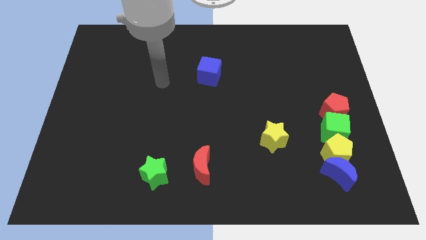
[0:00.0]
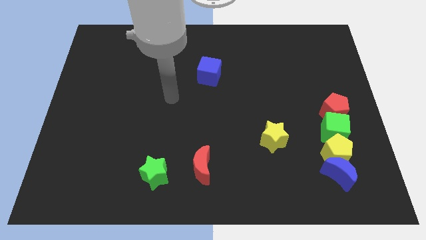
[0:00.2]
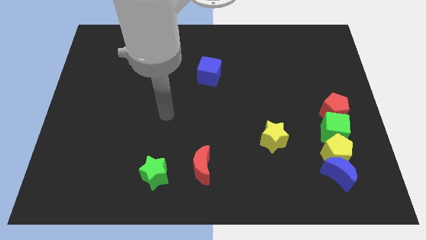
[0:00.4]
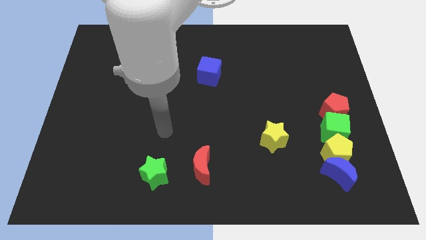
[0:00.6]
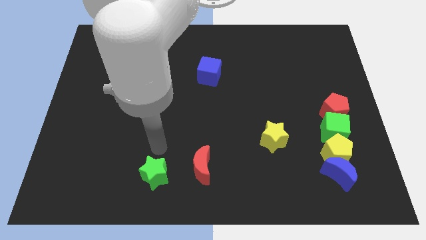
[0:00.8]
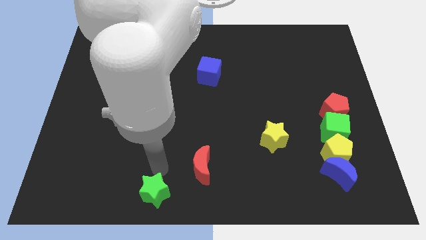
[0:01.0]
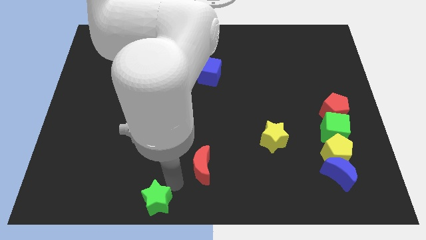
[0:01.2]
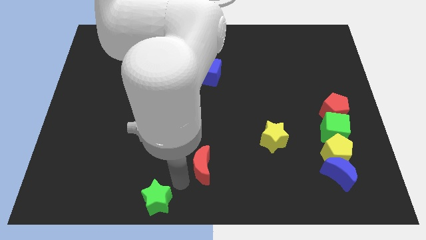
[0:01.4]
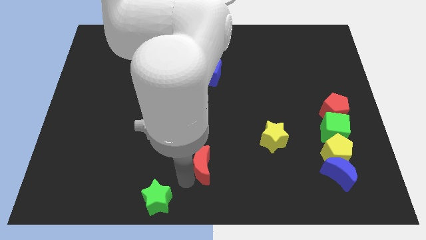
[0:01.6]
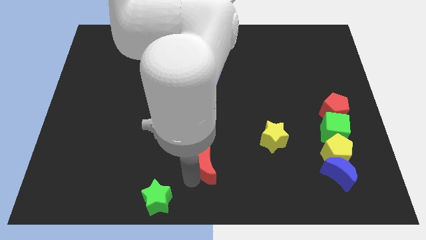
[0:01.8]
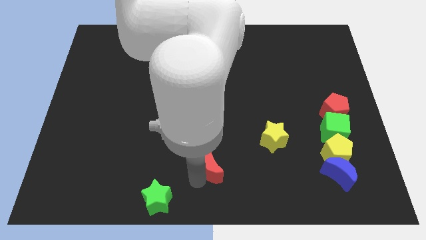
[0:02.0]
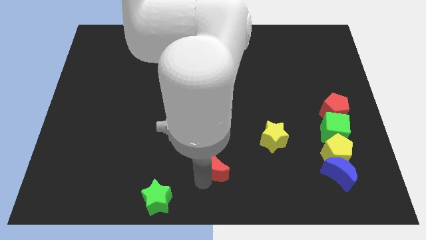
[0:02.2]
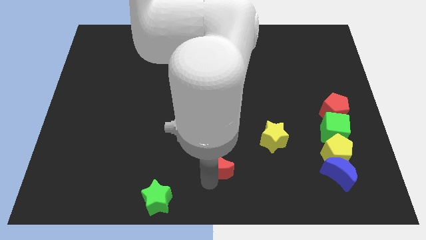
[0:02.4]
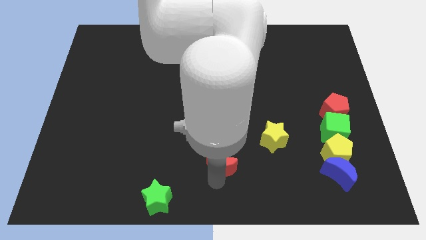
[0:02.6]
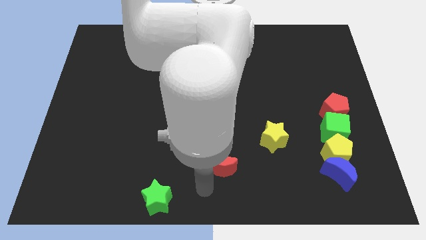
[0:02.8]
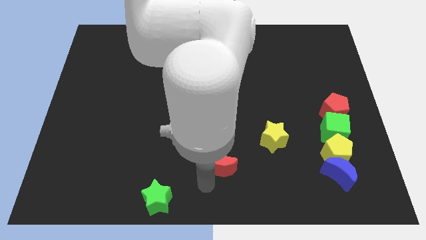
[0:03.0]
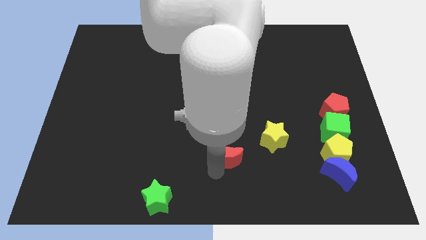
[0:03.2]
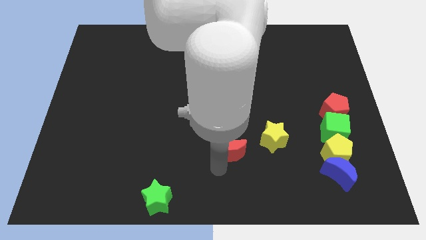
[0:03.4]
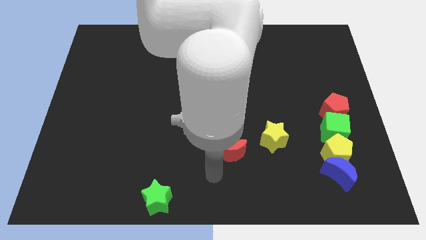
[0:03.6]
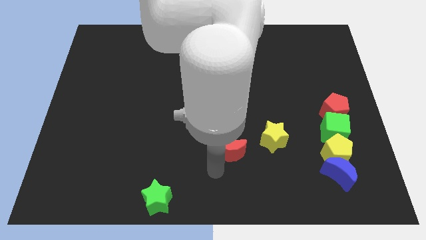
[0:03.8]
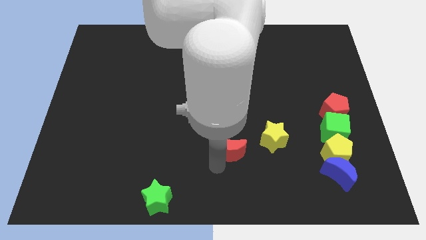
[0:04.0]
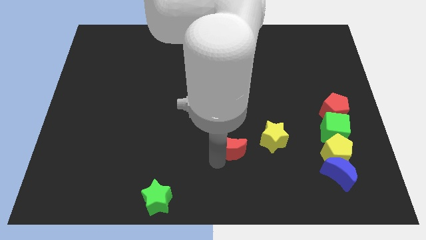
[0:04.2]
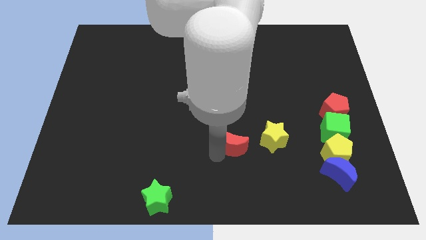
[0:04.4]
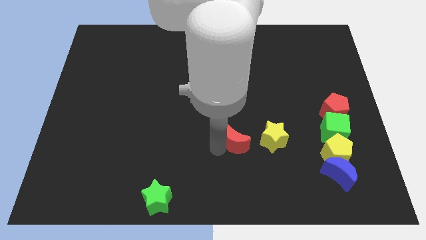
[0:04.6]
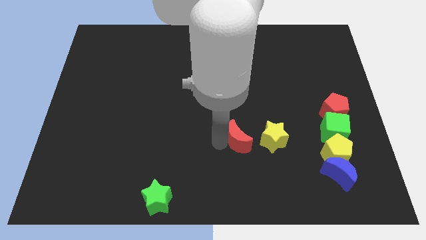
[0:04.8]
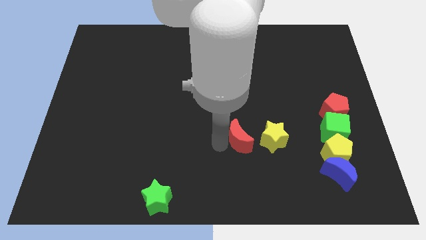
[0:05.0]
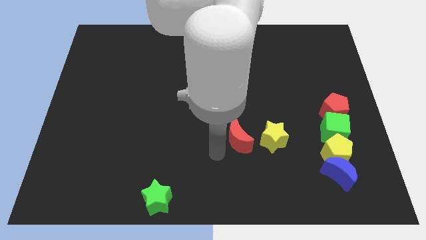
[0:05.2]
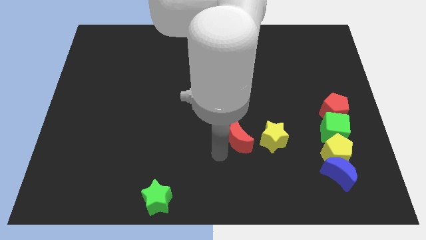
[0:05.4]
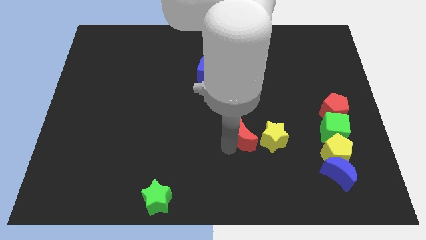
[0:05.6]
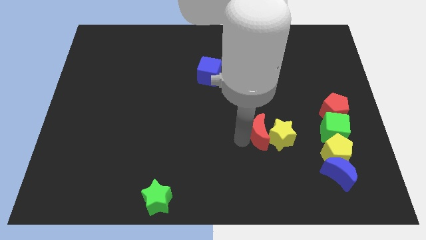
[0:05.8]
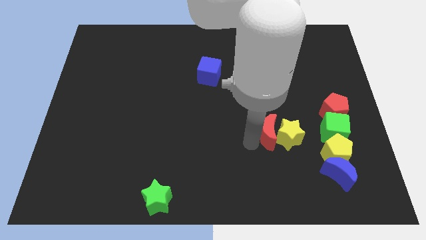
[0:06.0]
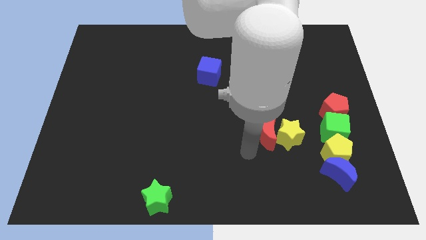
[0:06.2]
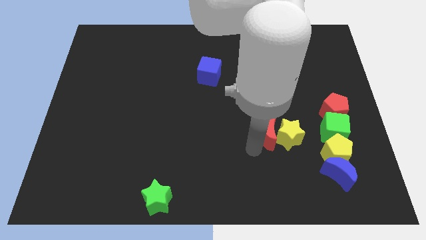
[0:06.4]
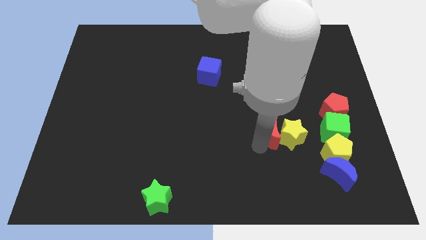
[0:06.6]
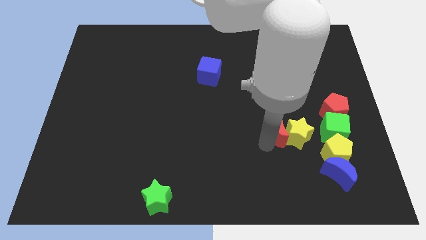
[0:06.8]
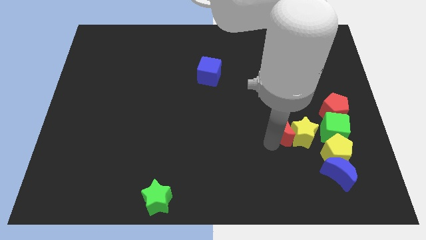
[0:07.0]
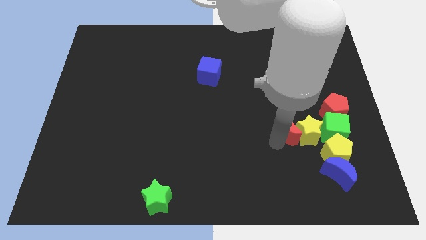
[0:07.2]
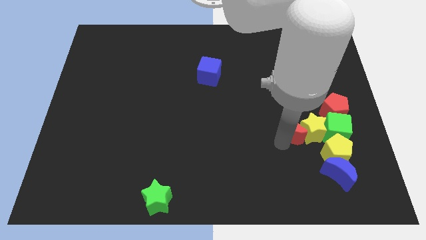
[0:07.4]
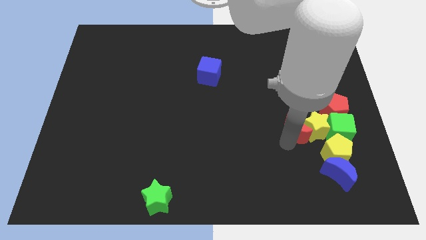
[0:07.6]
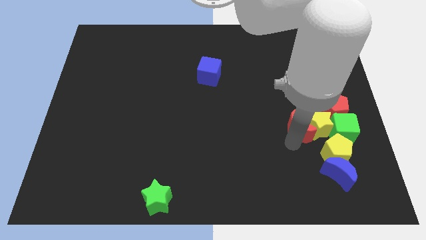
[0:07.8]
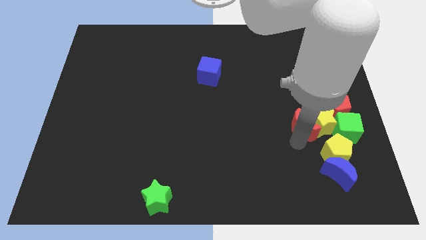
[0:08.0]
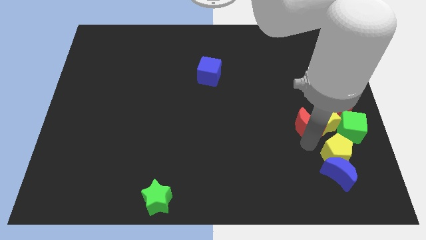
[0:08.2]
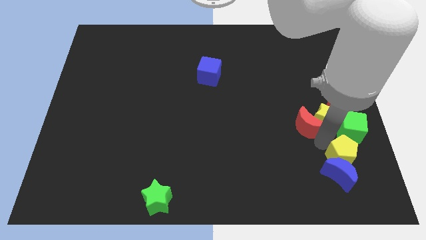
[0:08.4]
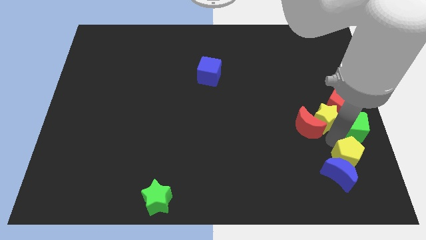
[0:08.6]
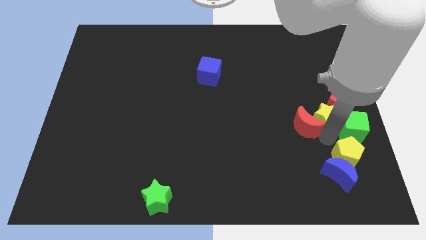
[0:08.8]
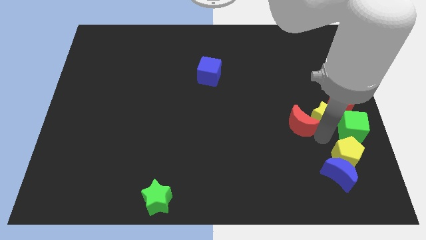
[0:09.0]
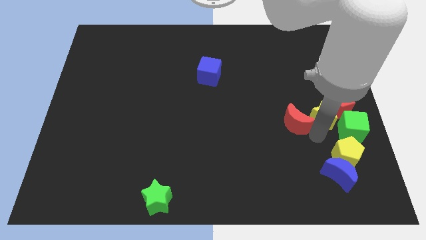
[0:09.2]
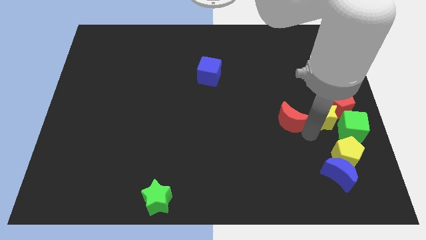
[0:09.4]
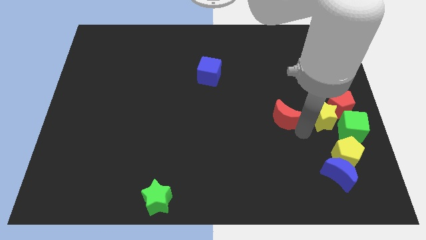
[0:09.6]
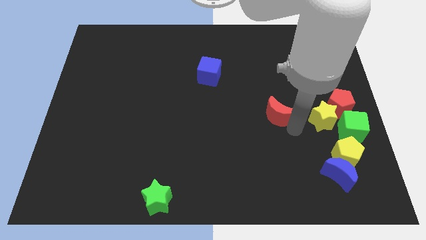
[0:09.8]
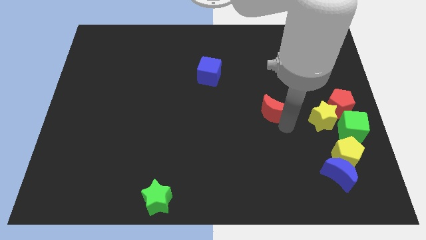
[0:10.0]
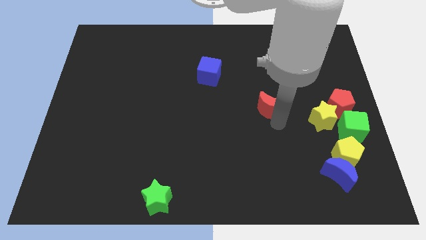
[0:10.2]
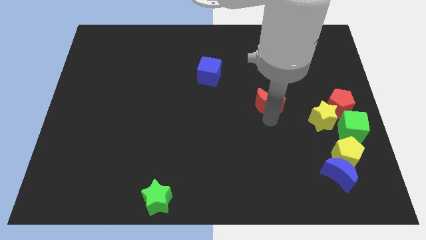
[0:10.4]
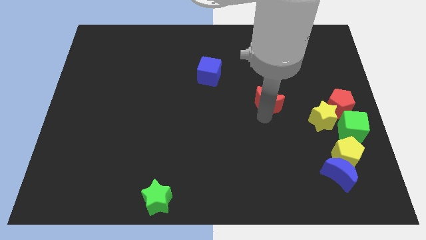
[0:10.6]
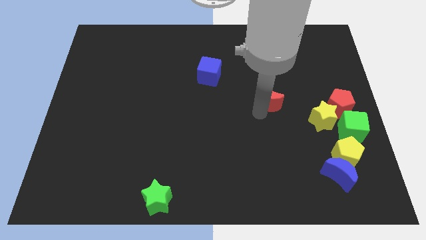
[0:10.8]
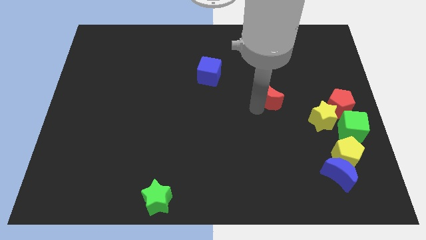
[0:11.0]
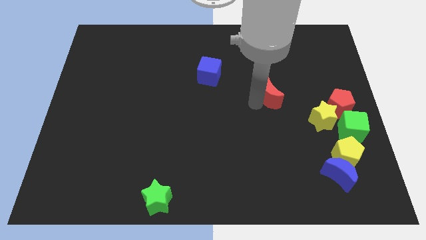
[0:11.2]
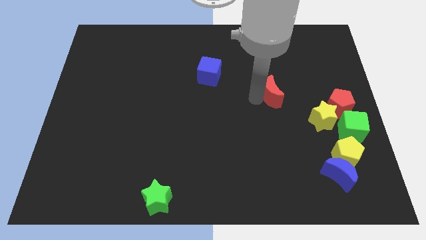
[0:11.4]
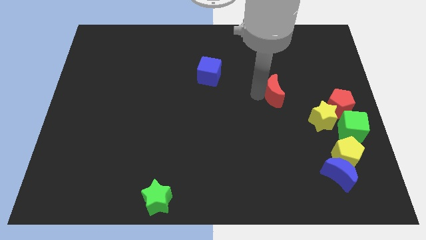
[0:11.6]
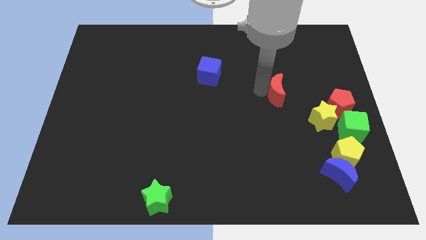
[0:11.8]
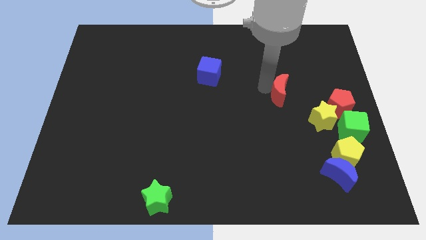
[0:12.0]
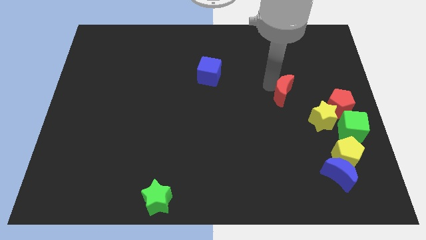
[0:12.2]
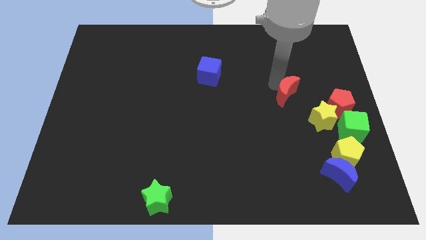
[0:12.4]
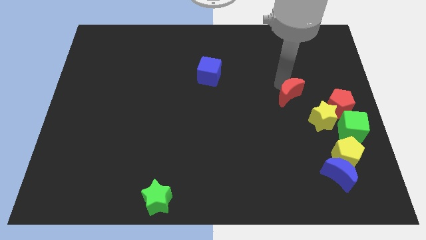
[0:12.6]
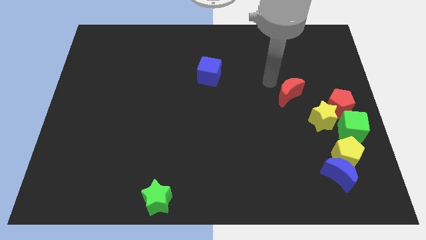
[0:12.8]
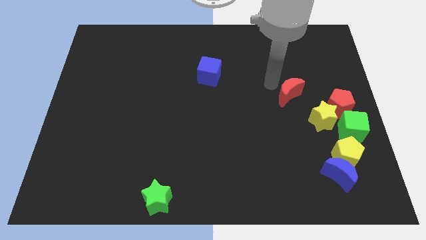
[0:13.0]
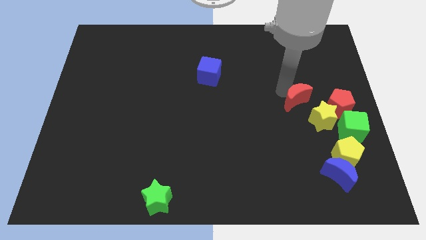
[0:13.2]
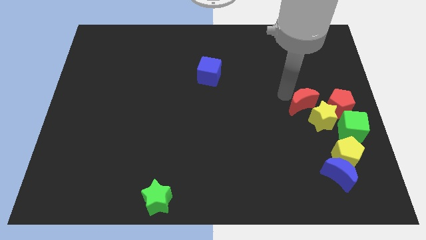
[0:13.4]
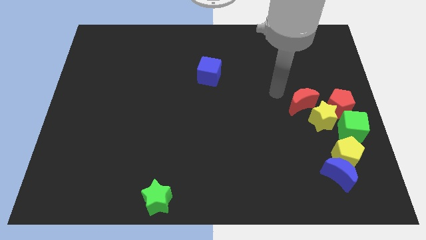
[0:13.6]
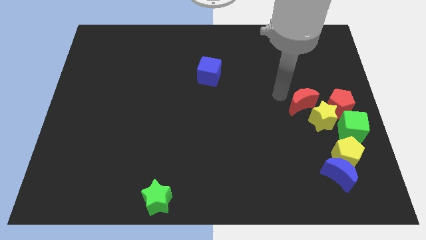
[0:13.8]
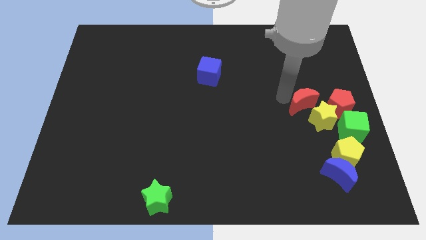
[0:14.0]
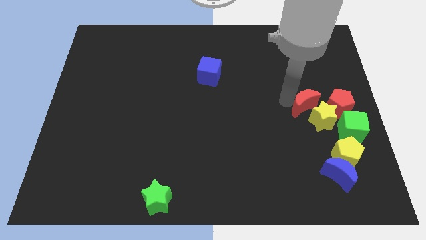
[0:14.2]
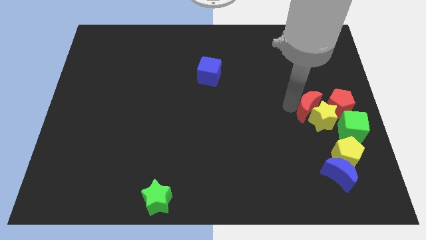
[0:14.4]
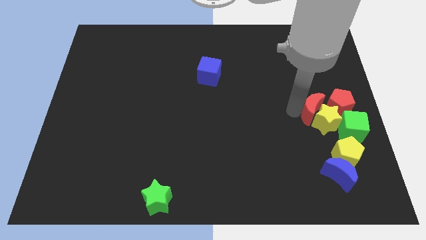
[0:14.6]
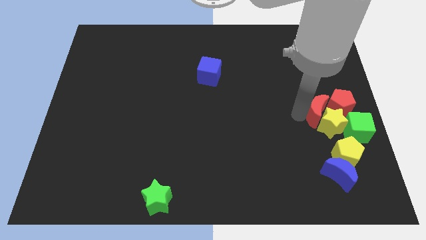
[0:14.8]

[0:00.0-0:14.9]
put the red moon to the red pentagon
